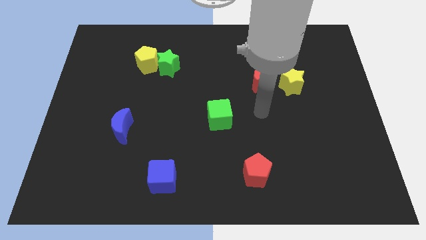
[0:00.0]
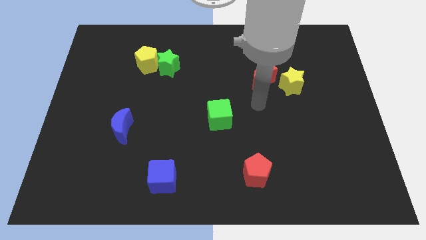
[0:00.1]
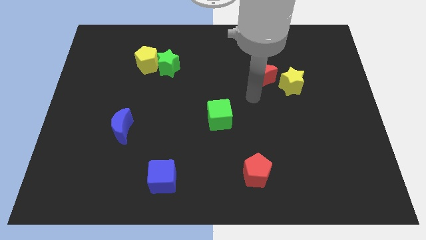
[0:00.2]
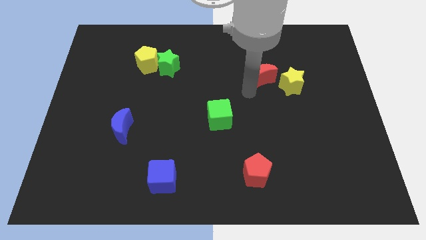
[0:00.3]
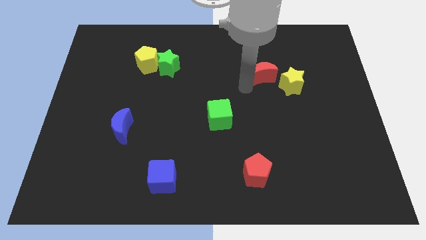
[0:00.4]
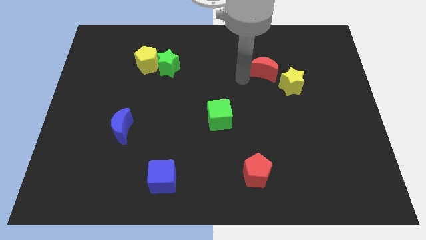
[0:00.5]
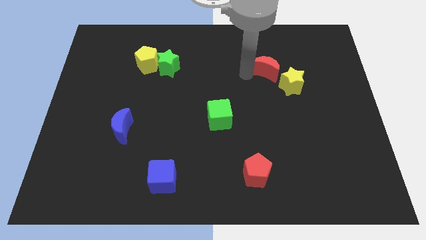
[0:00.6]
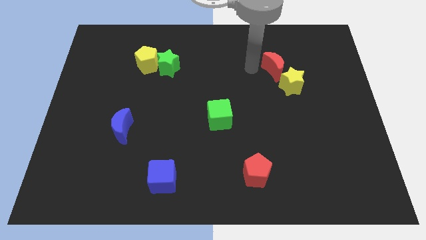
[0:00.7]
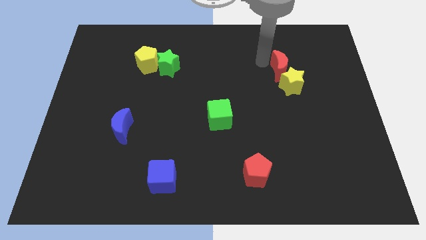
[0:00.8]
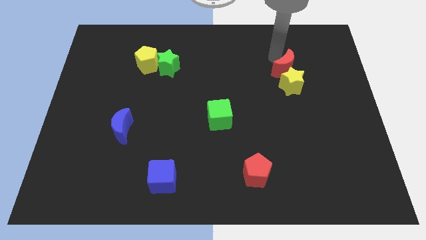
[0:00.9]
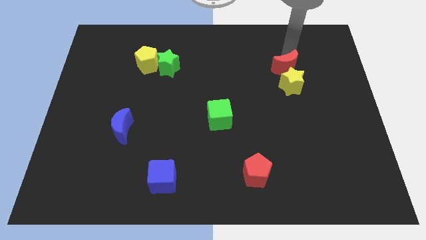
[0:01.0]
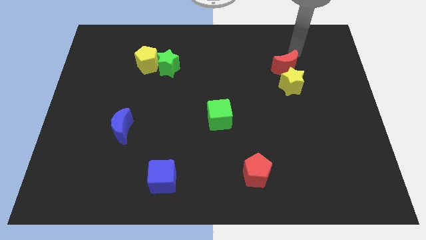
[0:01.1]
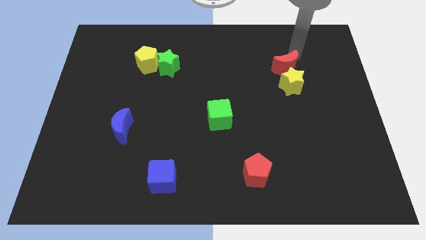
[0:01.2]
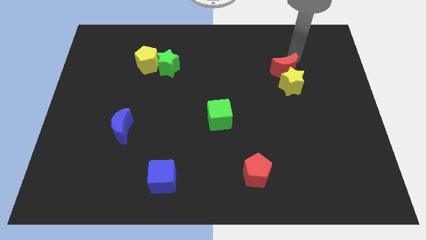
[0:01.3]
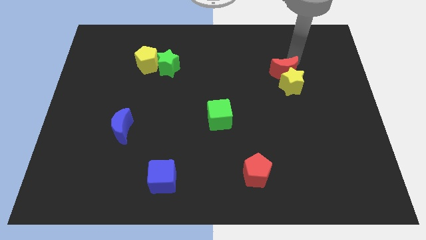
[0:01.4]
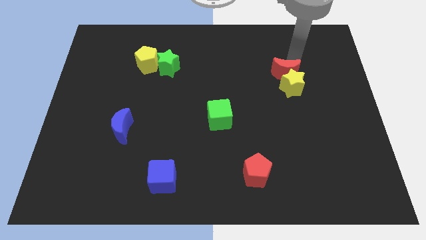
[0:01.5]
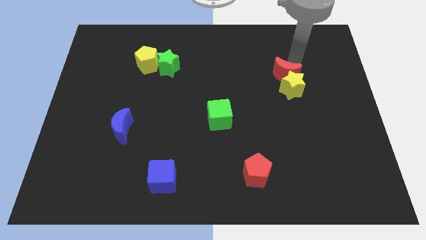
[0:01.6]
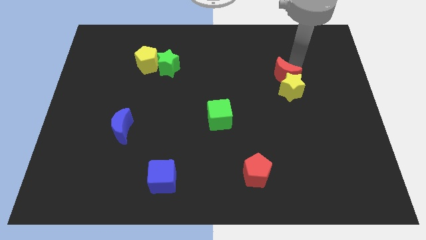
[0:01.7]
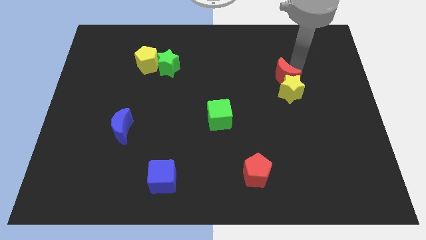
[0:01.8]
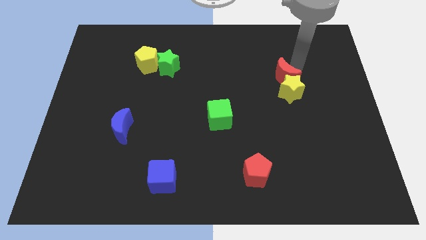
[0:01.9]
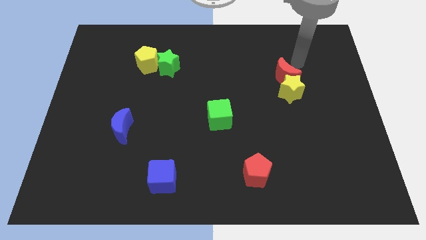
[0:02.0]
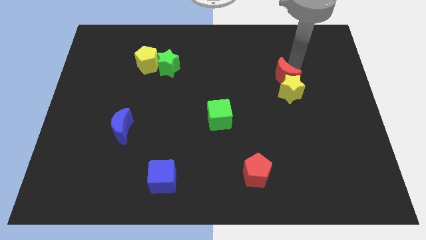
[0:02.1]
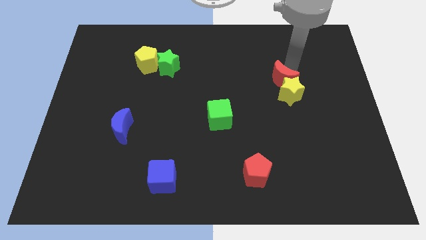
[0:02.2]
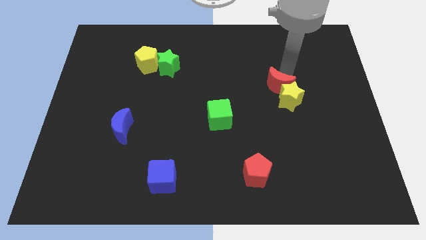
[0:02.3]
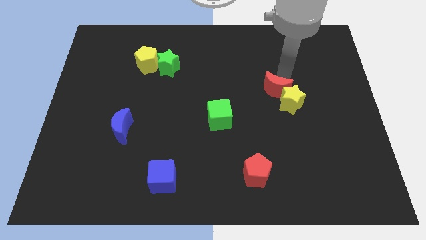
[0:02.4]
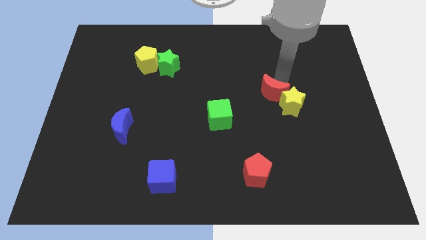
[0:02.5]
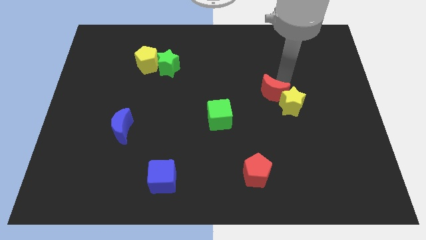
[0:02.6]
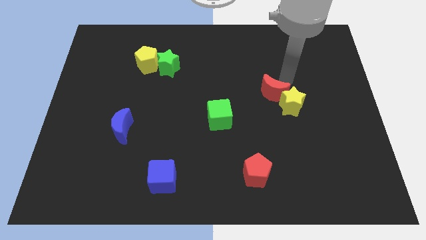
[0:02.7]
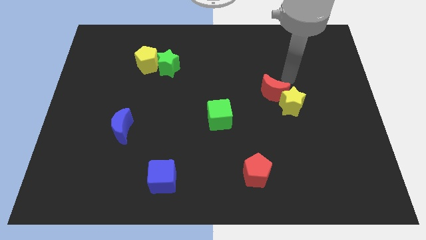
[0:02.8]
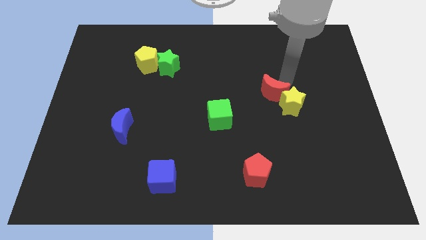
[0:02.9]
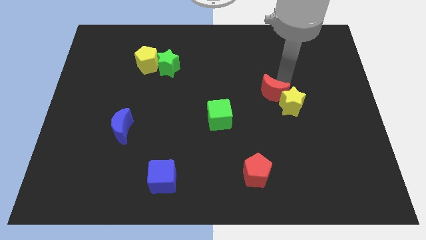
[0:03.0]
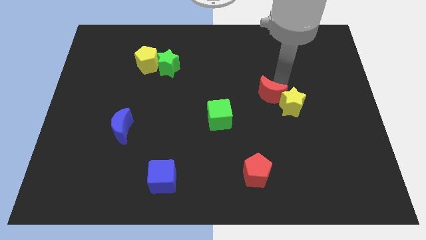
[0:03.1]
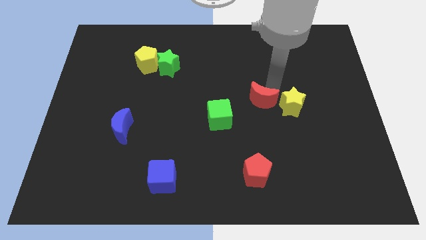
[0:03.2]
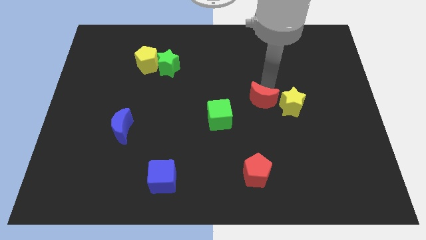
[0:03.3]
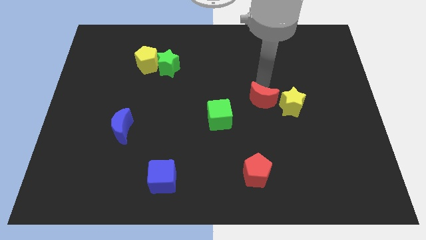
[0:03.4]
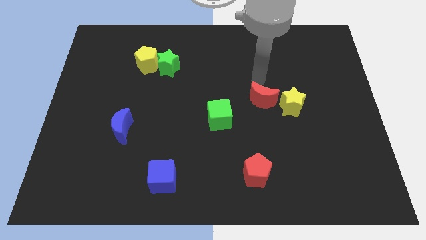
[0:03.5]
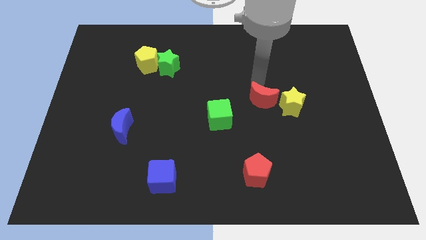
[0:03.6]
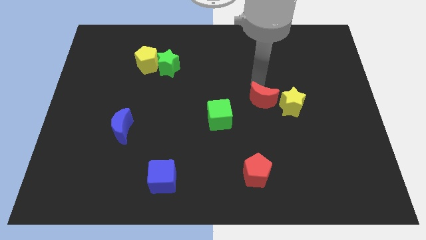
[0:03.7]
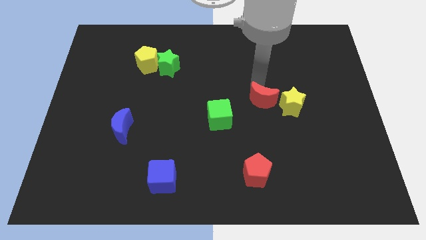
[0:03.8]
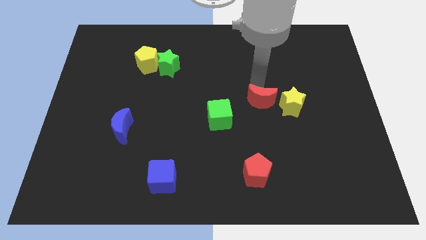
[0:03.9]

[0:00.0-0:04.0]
slightly move the red moon downwards

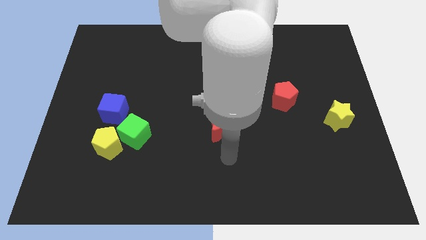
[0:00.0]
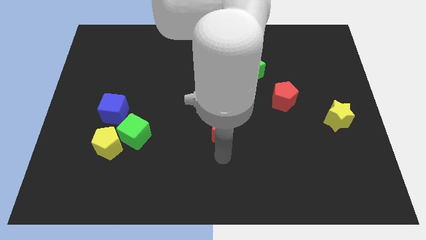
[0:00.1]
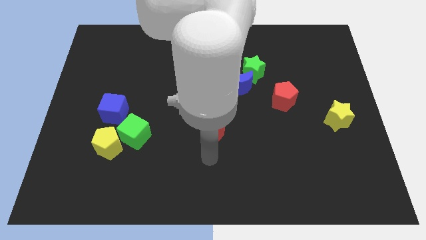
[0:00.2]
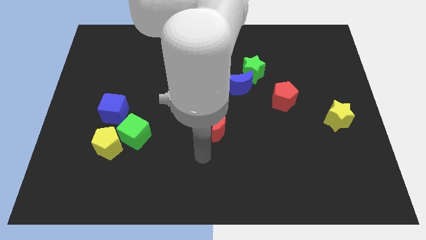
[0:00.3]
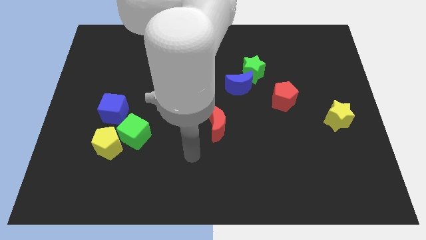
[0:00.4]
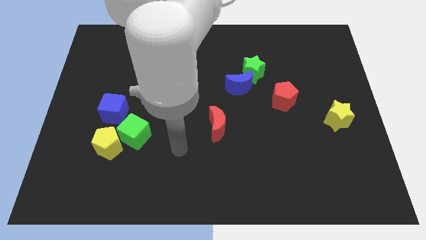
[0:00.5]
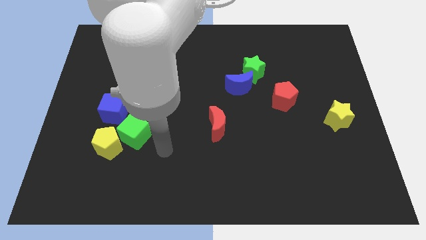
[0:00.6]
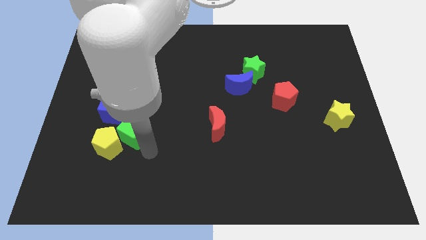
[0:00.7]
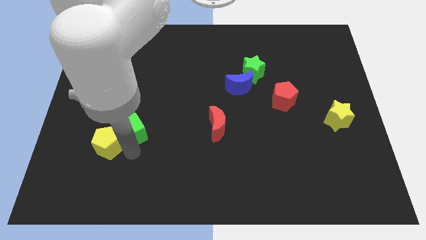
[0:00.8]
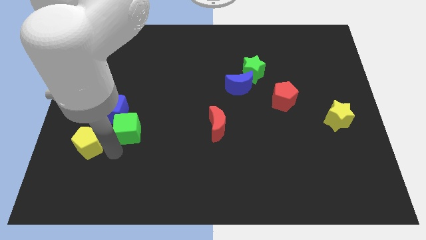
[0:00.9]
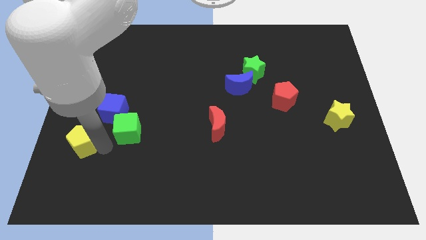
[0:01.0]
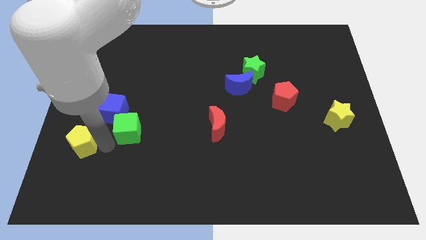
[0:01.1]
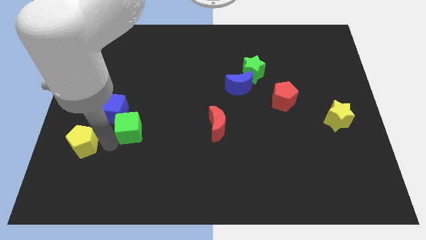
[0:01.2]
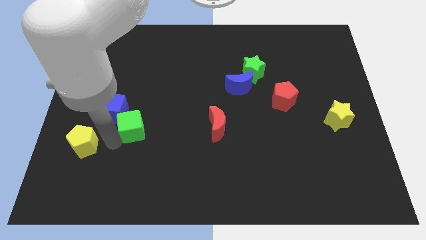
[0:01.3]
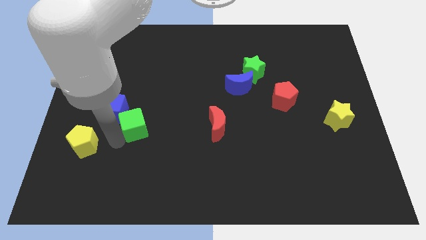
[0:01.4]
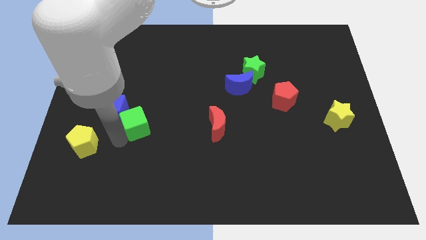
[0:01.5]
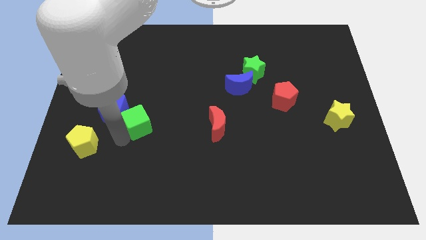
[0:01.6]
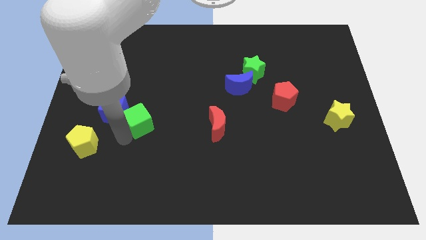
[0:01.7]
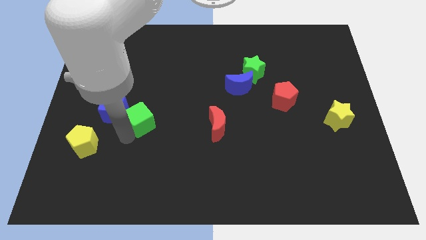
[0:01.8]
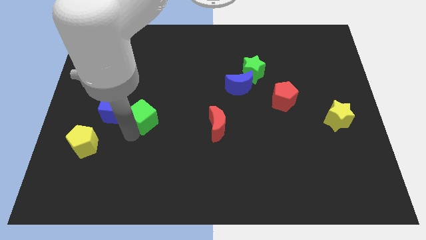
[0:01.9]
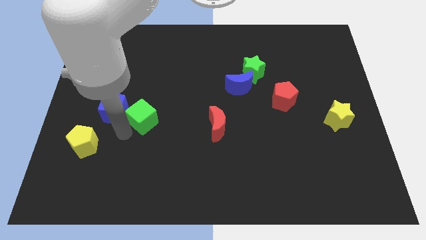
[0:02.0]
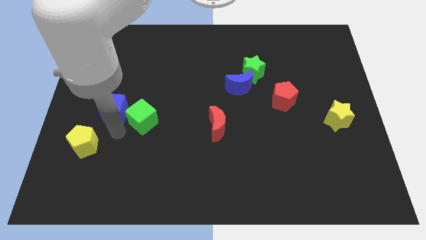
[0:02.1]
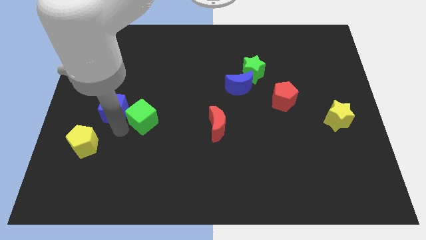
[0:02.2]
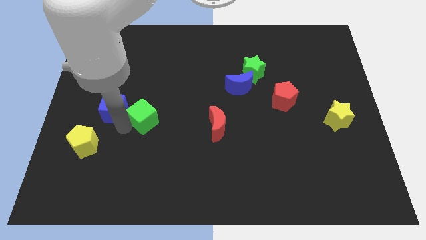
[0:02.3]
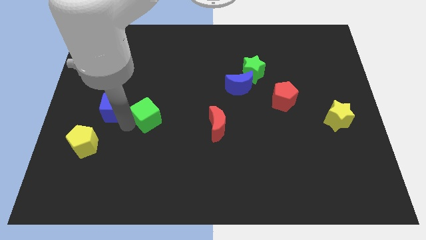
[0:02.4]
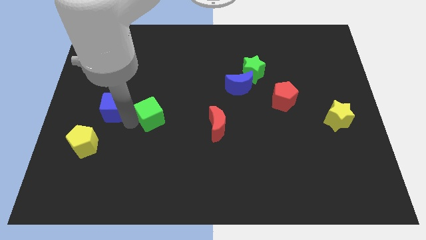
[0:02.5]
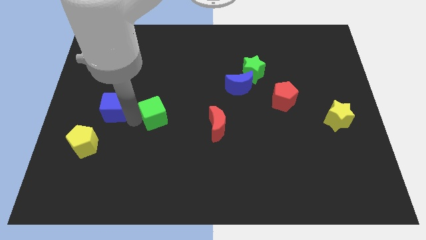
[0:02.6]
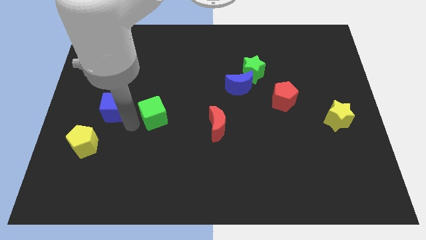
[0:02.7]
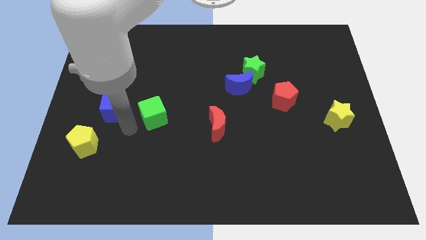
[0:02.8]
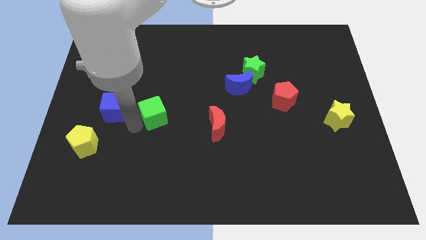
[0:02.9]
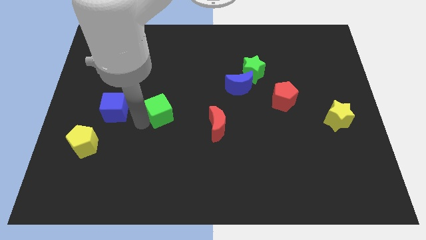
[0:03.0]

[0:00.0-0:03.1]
push the green cube diagonally up and to the right slightly

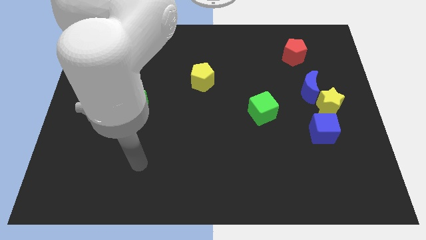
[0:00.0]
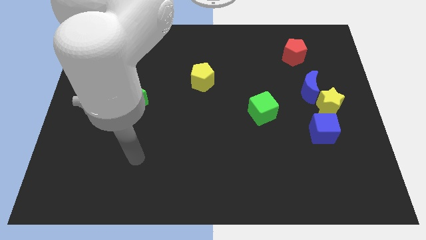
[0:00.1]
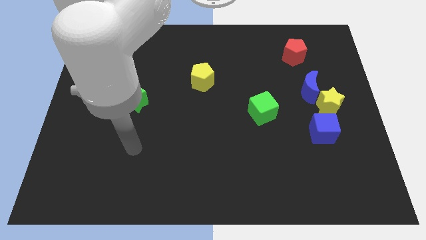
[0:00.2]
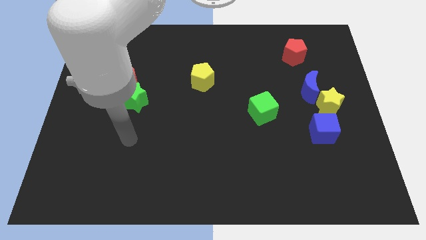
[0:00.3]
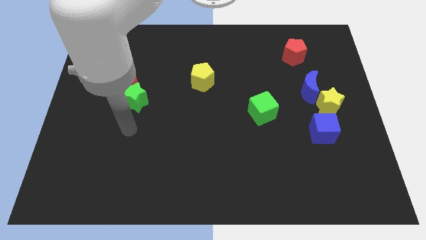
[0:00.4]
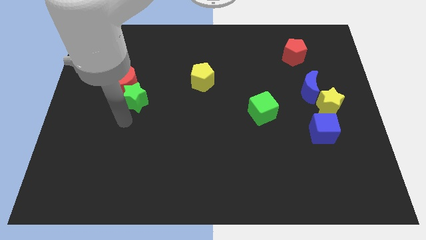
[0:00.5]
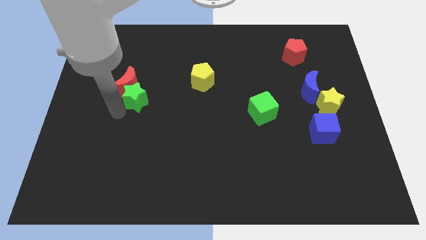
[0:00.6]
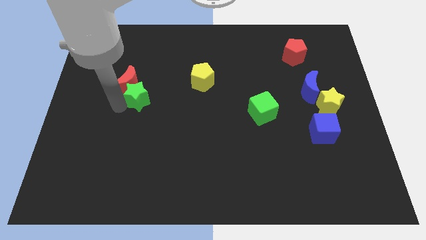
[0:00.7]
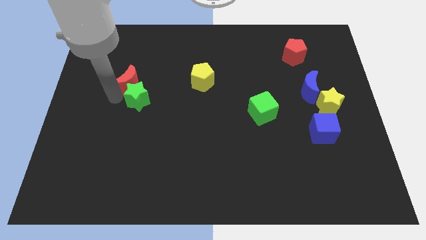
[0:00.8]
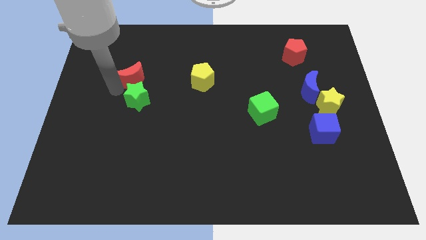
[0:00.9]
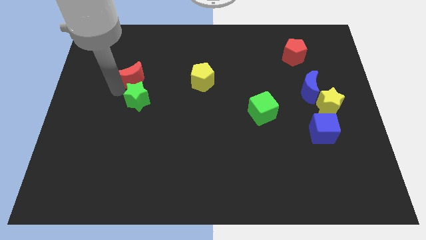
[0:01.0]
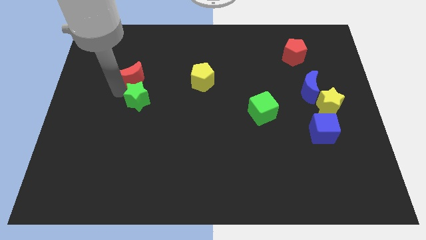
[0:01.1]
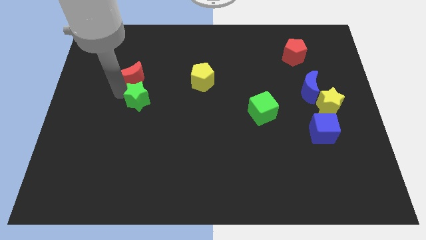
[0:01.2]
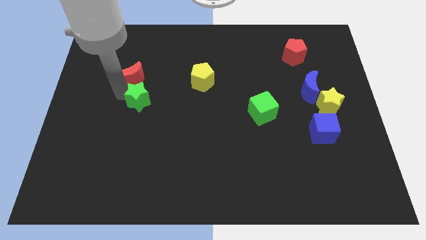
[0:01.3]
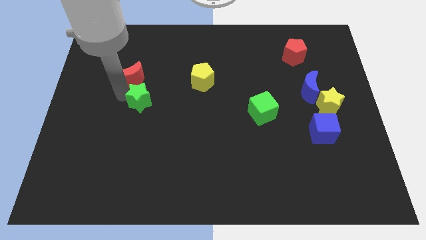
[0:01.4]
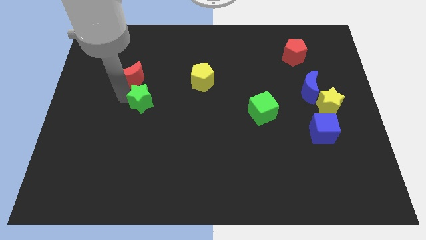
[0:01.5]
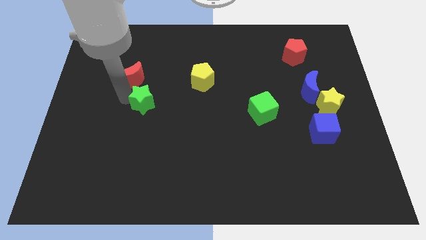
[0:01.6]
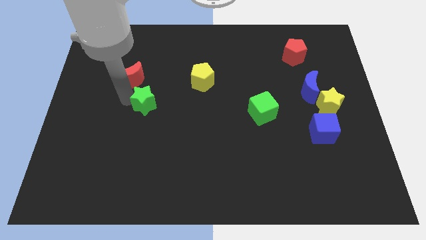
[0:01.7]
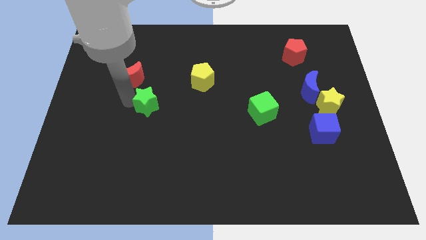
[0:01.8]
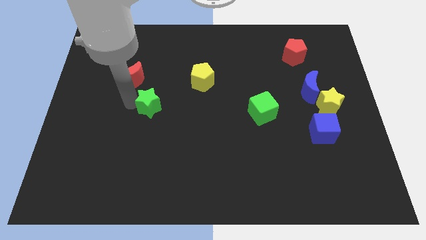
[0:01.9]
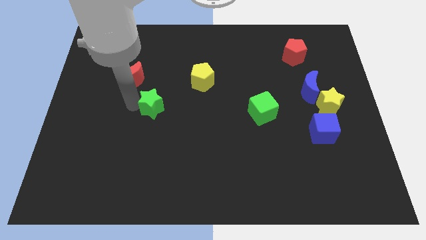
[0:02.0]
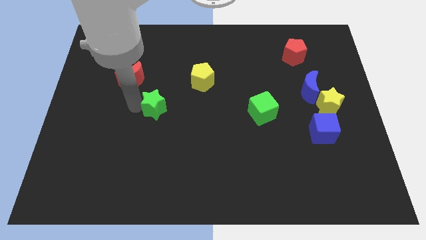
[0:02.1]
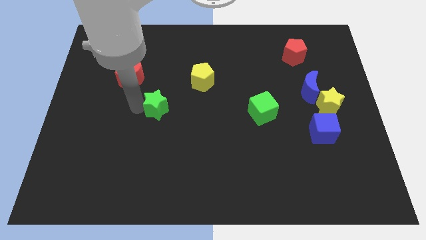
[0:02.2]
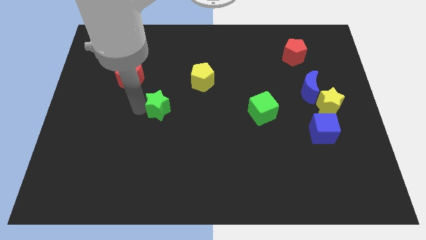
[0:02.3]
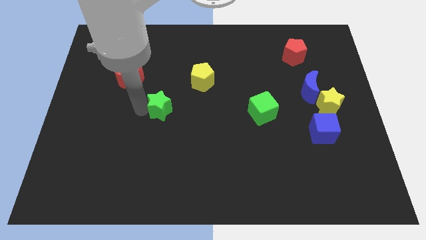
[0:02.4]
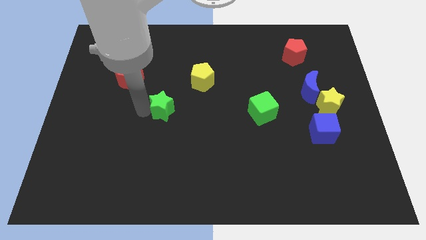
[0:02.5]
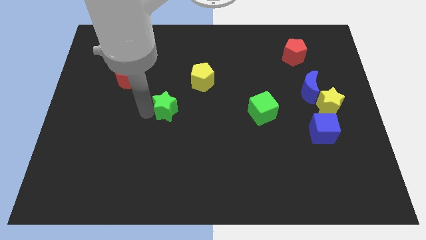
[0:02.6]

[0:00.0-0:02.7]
slightly push the green star down and right diagonally
